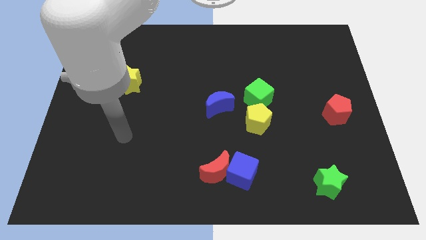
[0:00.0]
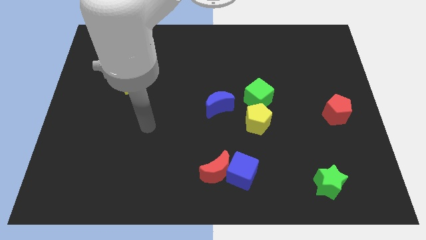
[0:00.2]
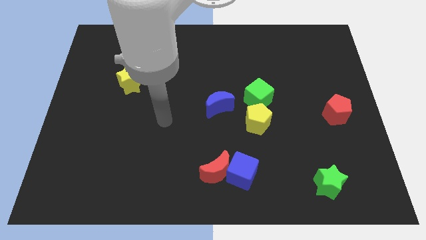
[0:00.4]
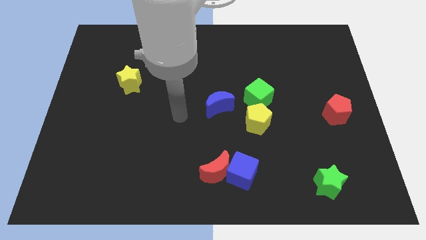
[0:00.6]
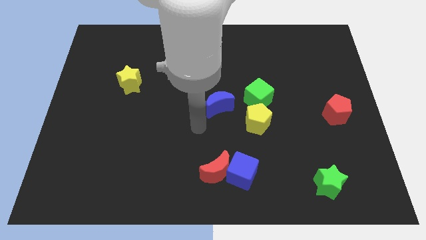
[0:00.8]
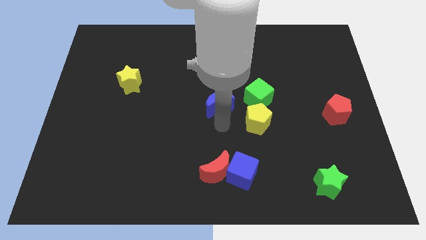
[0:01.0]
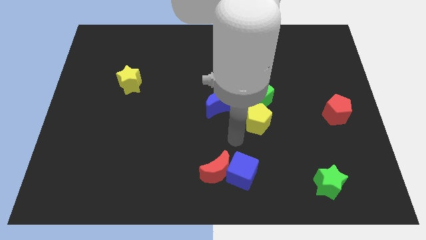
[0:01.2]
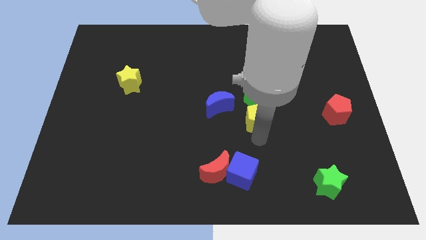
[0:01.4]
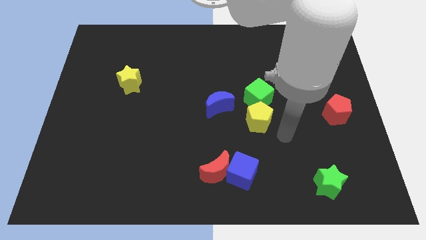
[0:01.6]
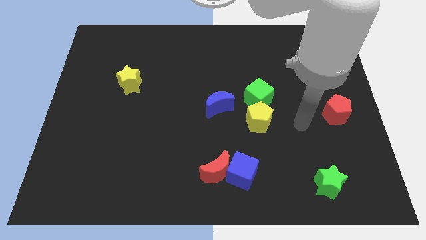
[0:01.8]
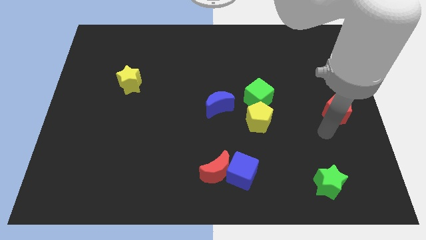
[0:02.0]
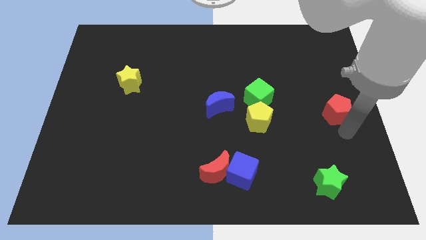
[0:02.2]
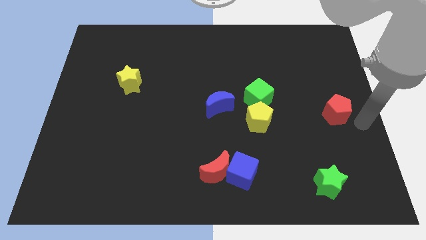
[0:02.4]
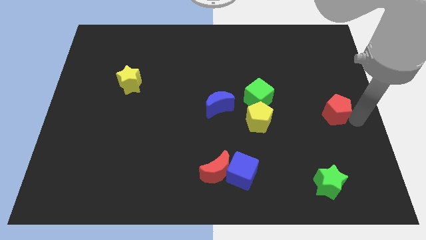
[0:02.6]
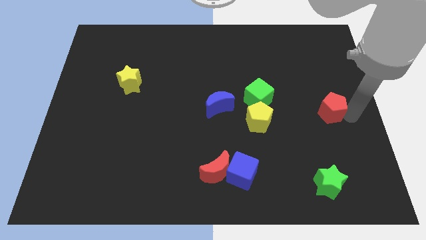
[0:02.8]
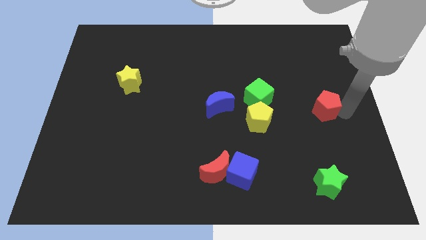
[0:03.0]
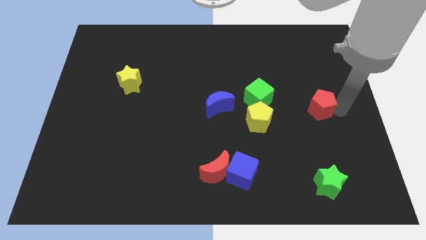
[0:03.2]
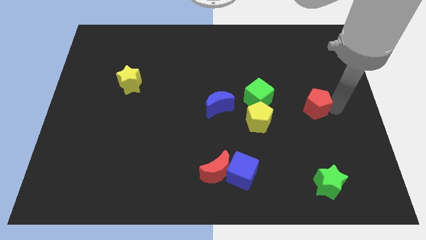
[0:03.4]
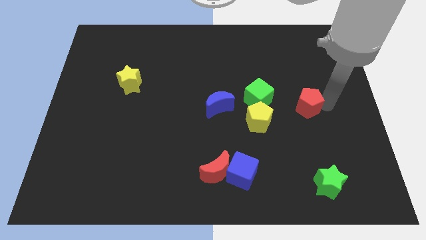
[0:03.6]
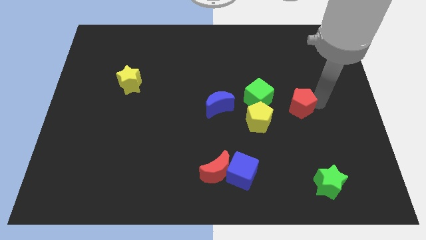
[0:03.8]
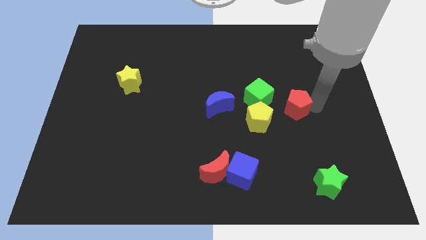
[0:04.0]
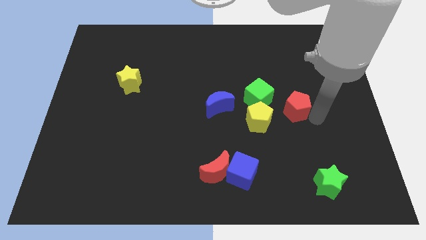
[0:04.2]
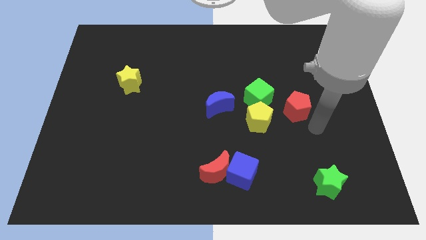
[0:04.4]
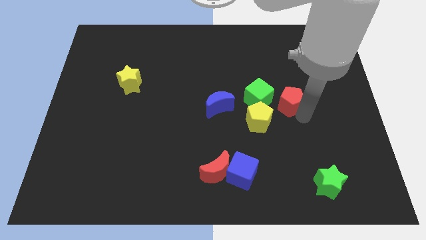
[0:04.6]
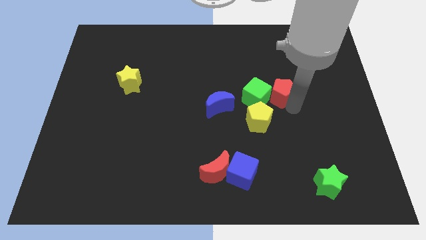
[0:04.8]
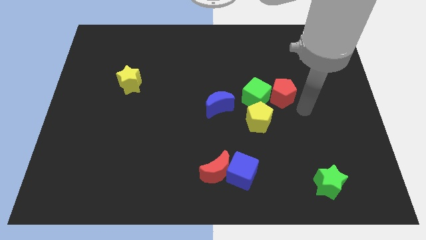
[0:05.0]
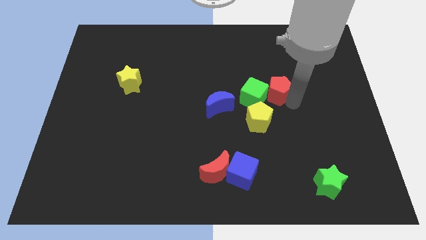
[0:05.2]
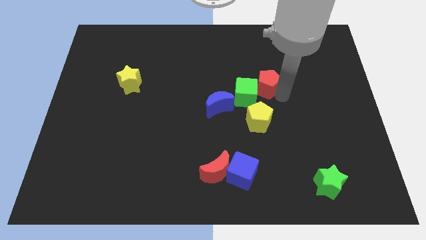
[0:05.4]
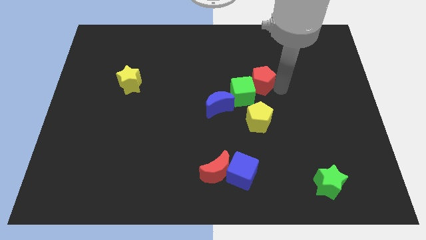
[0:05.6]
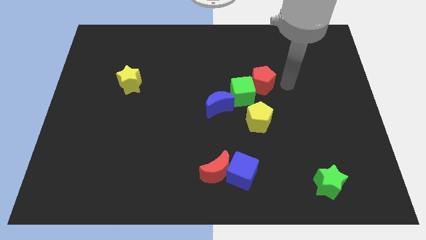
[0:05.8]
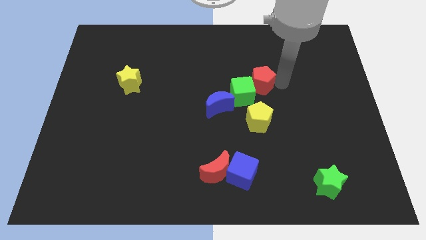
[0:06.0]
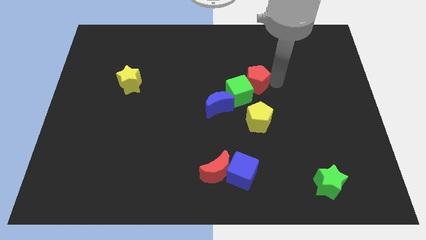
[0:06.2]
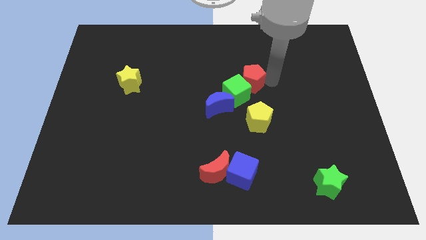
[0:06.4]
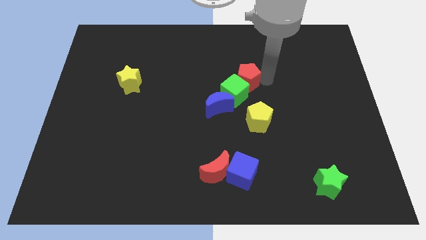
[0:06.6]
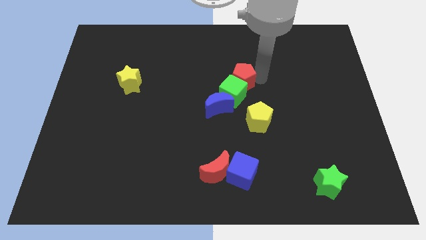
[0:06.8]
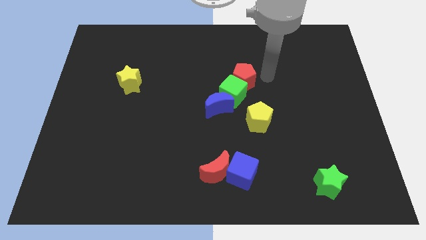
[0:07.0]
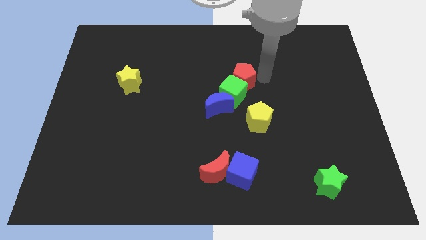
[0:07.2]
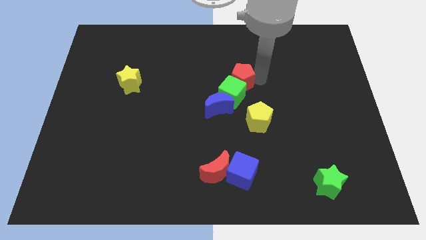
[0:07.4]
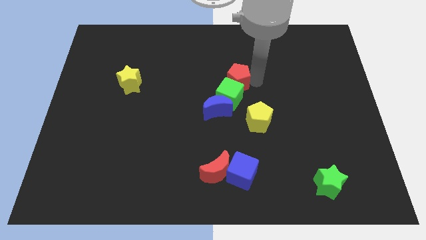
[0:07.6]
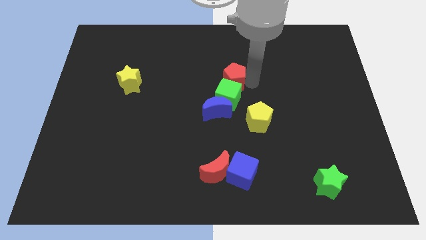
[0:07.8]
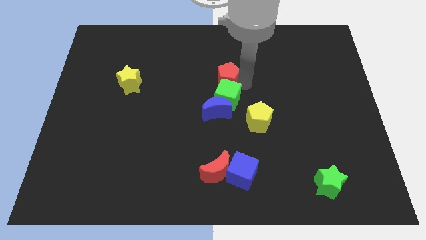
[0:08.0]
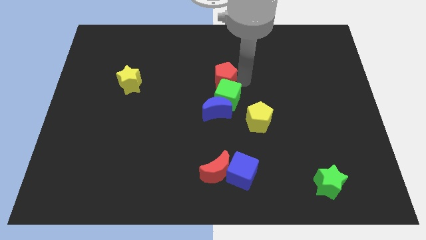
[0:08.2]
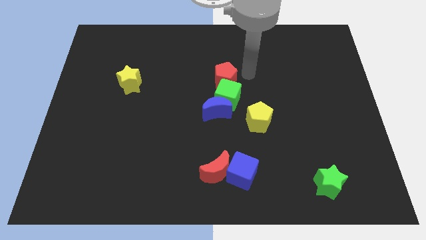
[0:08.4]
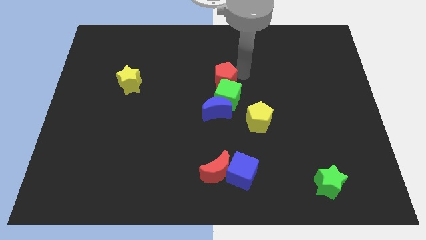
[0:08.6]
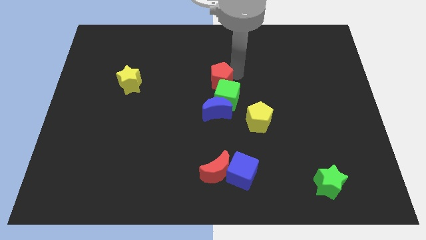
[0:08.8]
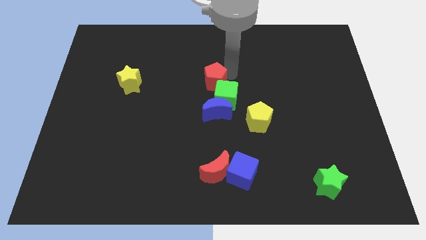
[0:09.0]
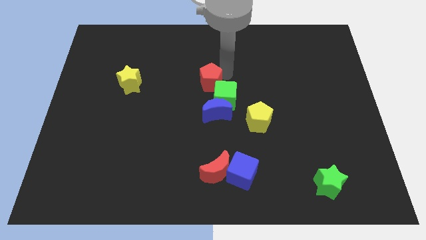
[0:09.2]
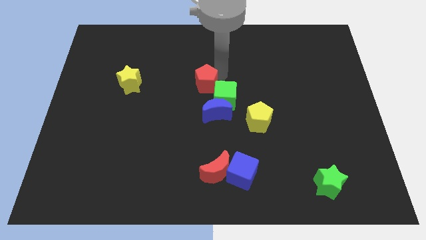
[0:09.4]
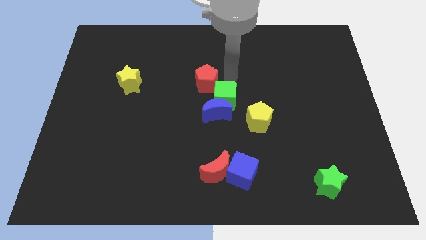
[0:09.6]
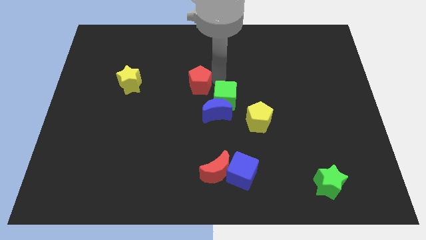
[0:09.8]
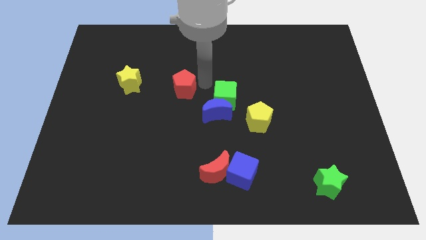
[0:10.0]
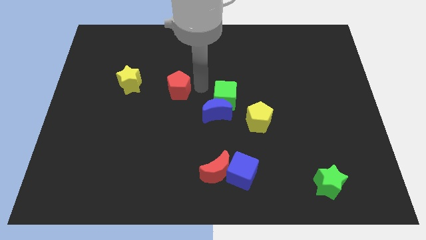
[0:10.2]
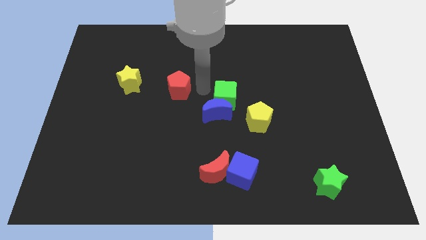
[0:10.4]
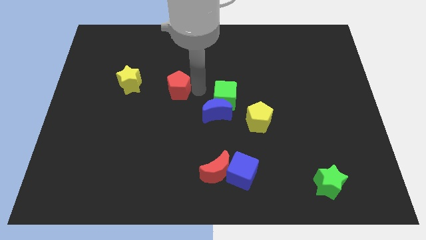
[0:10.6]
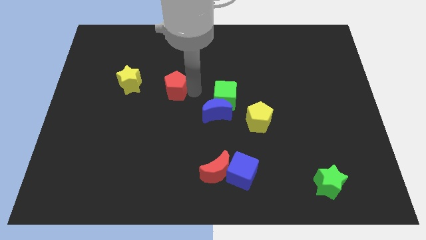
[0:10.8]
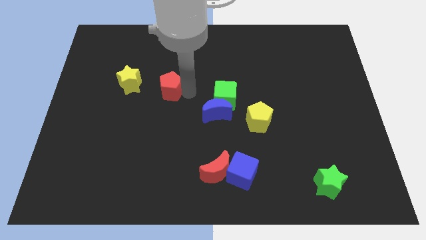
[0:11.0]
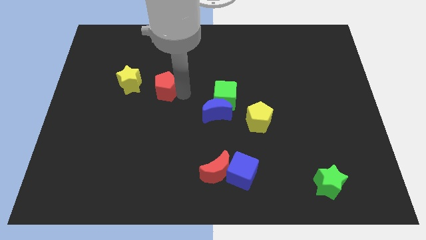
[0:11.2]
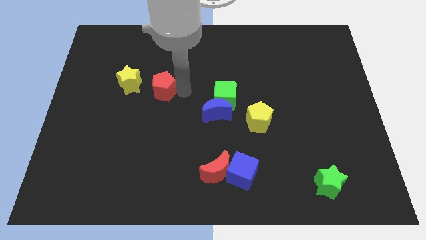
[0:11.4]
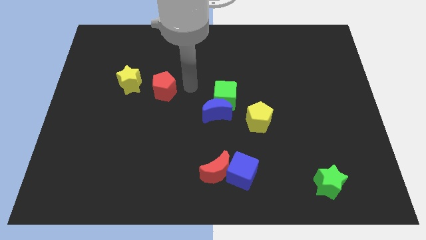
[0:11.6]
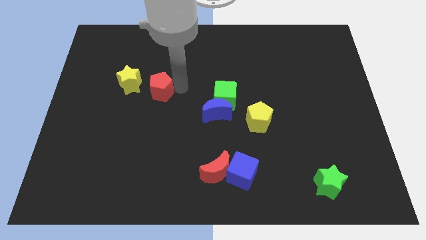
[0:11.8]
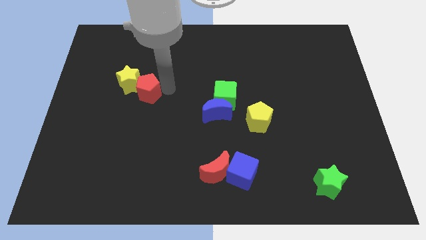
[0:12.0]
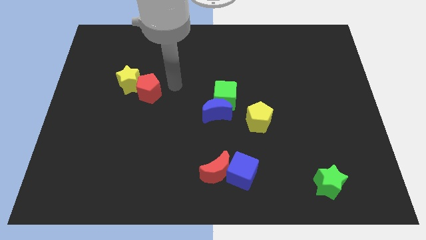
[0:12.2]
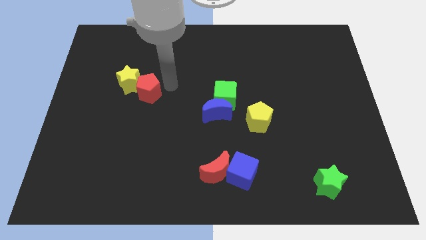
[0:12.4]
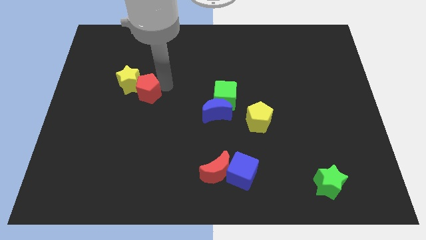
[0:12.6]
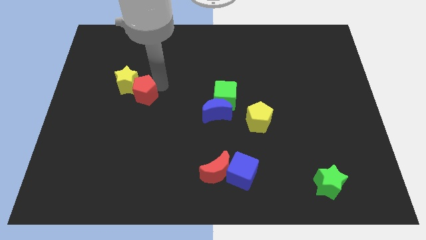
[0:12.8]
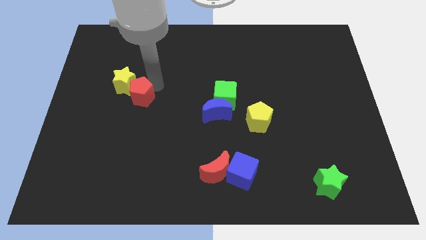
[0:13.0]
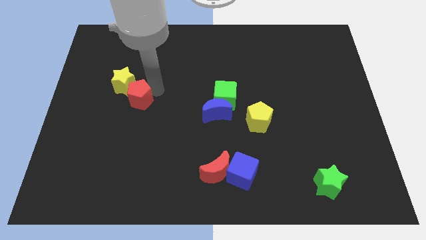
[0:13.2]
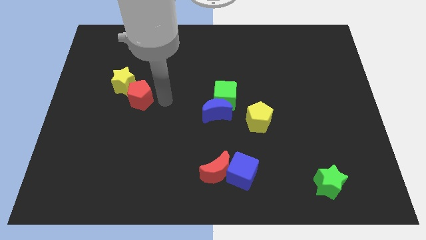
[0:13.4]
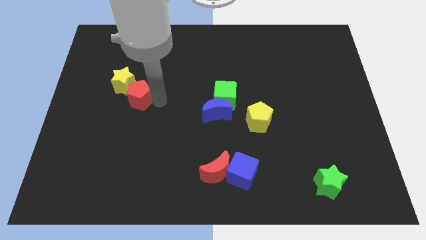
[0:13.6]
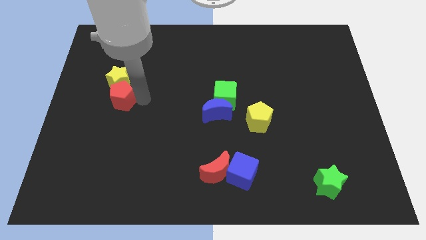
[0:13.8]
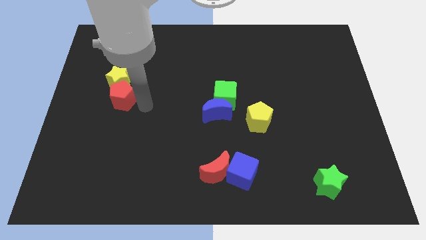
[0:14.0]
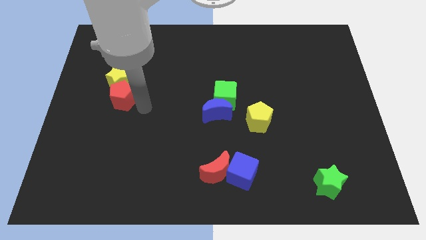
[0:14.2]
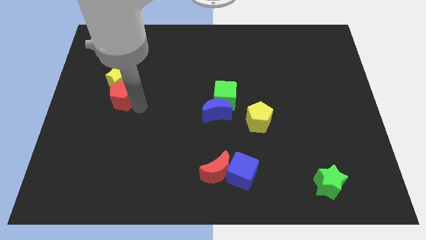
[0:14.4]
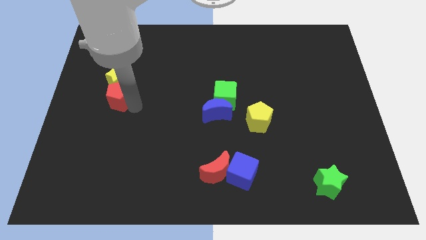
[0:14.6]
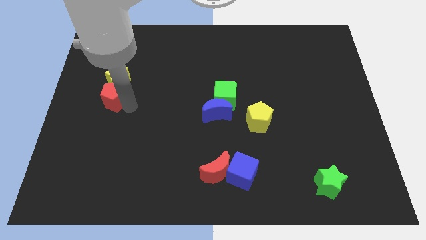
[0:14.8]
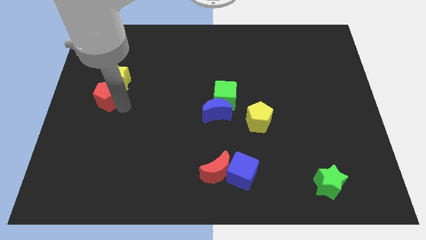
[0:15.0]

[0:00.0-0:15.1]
move the red pentagon to the left side
